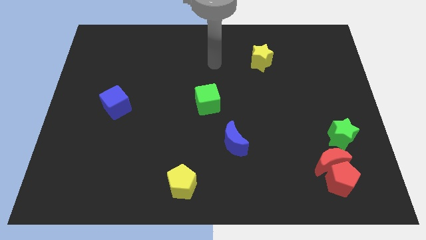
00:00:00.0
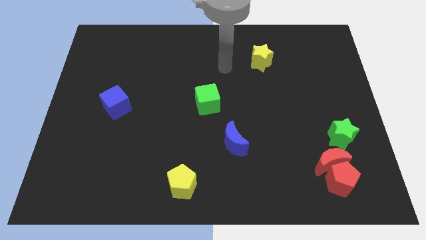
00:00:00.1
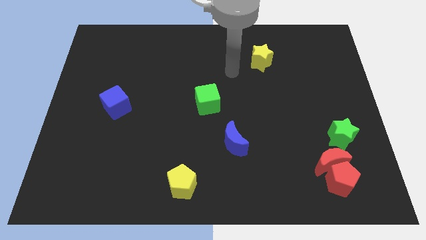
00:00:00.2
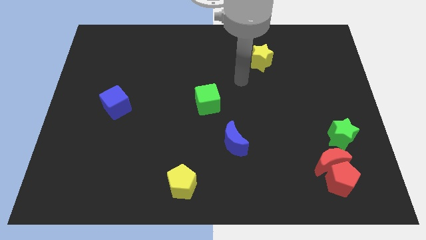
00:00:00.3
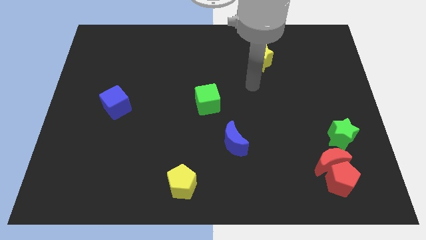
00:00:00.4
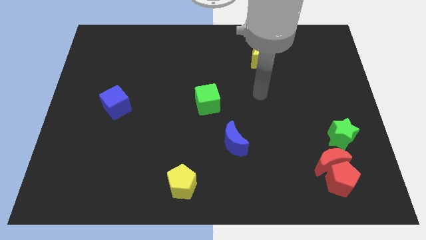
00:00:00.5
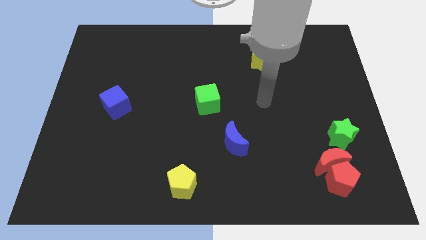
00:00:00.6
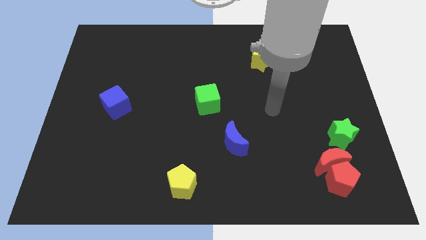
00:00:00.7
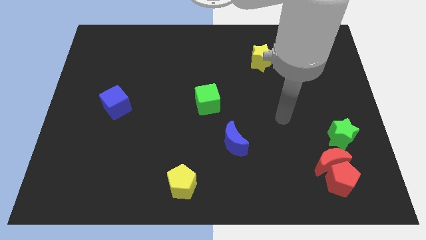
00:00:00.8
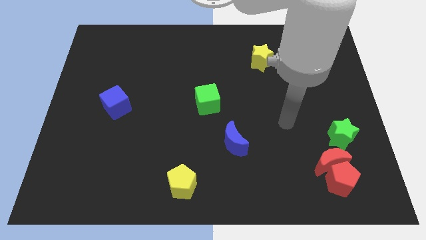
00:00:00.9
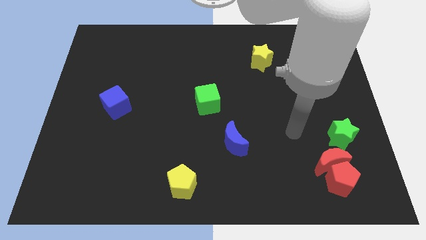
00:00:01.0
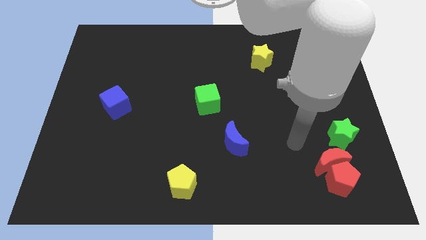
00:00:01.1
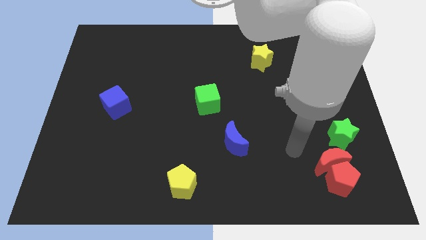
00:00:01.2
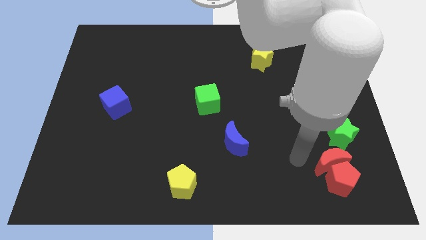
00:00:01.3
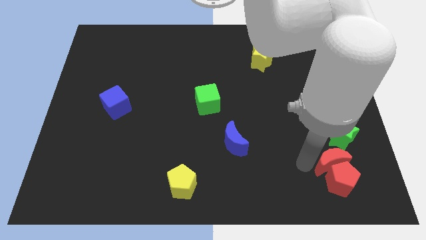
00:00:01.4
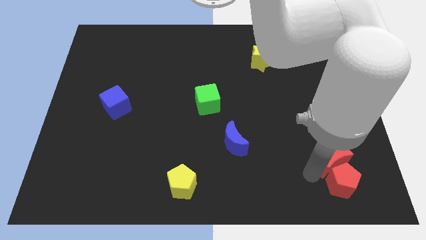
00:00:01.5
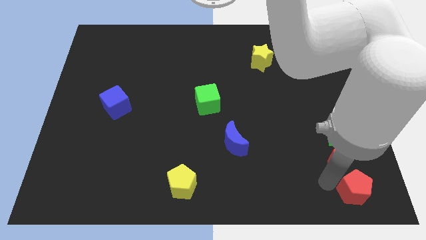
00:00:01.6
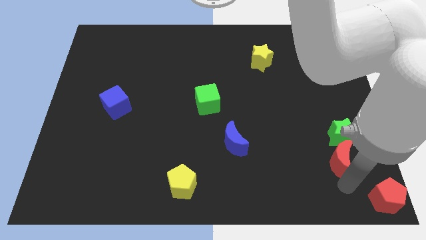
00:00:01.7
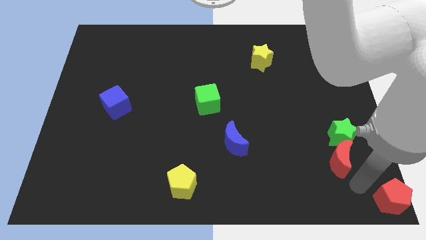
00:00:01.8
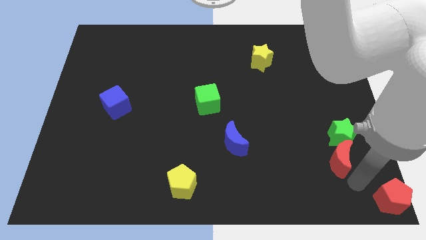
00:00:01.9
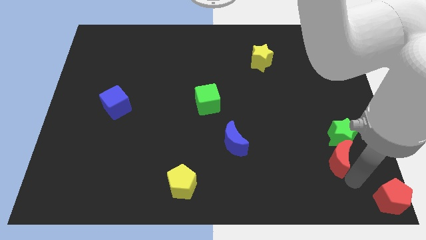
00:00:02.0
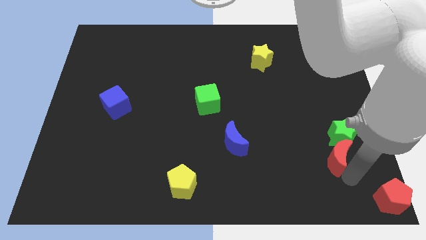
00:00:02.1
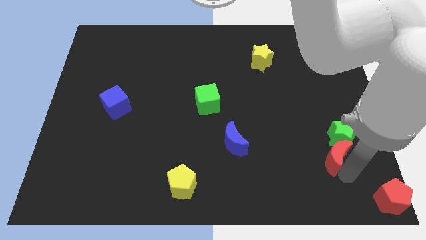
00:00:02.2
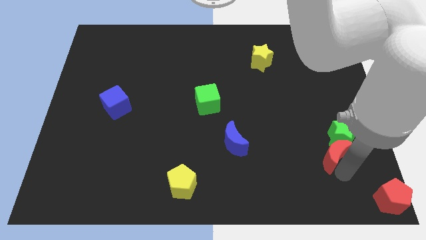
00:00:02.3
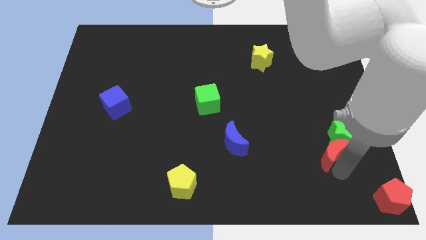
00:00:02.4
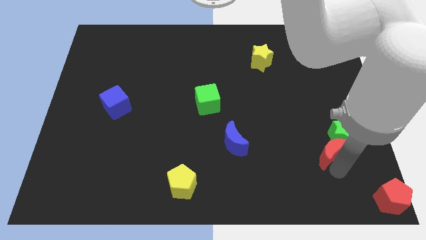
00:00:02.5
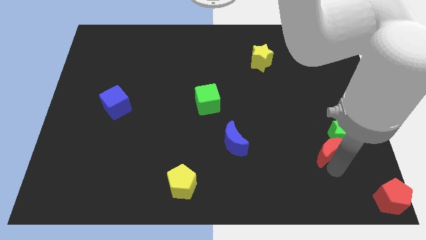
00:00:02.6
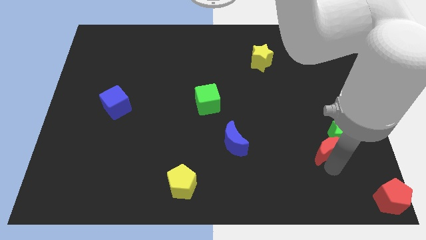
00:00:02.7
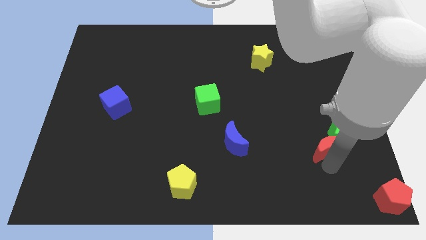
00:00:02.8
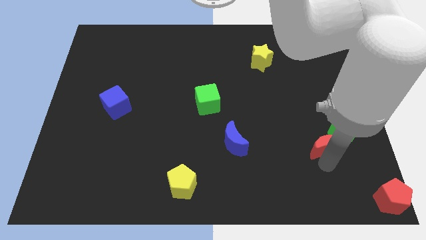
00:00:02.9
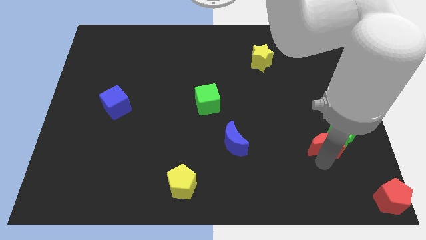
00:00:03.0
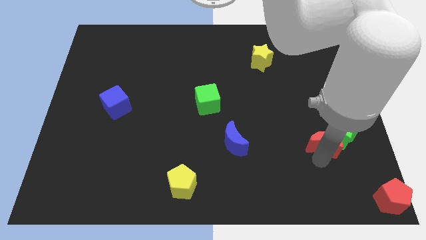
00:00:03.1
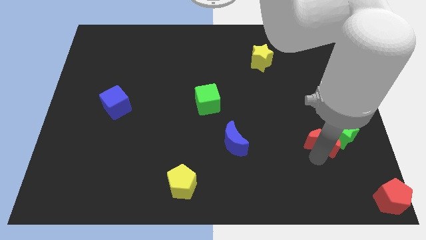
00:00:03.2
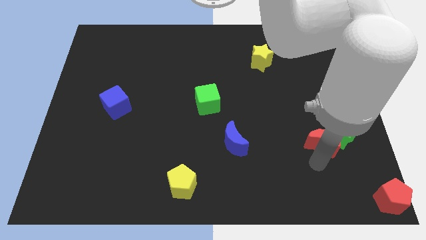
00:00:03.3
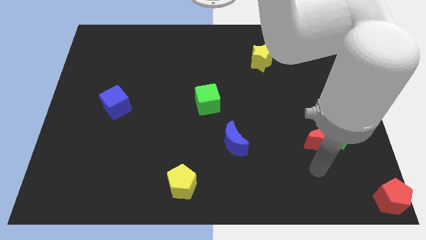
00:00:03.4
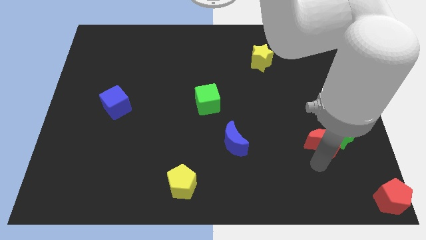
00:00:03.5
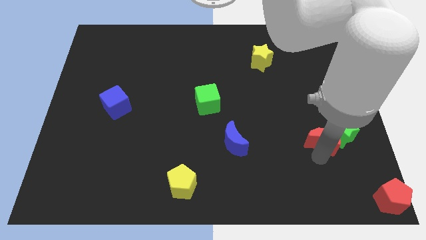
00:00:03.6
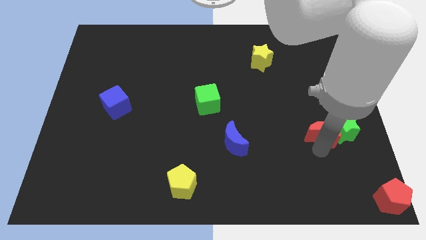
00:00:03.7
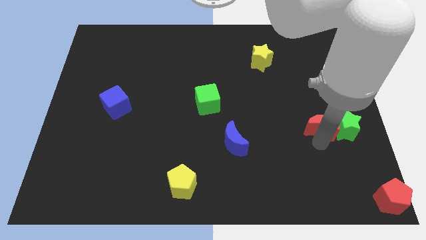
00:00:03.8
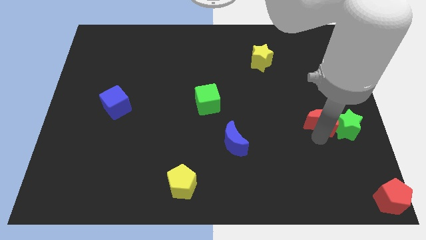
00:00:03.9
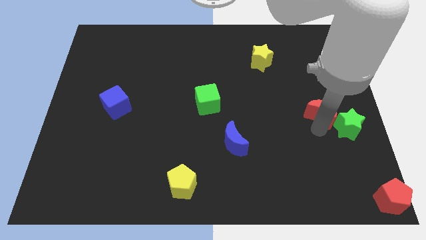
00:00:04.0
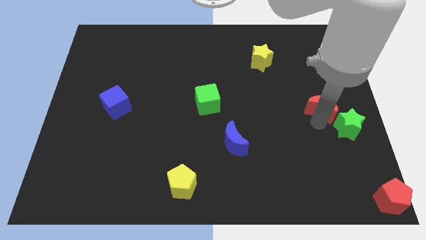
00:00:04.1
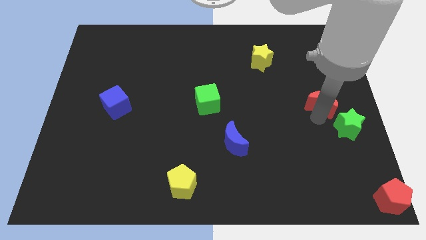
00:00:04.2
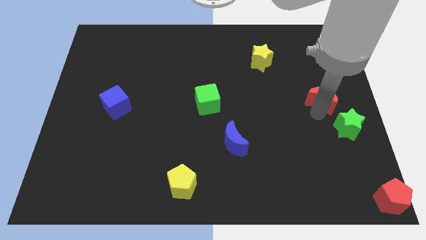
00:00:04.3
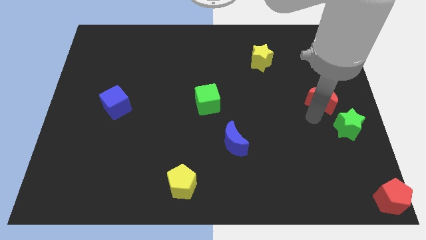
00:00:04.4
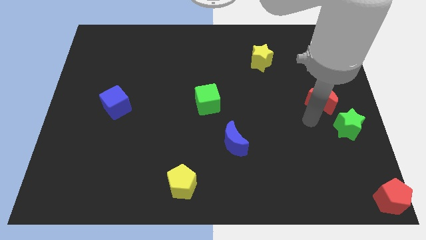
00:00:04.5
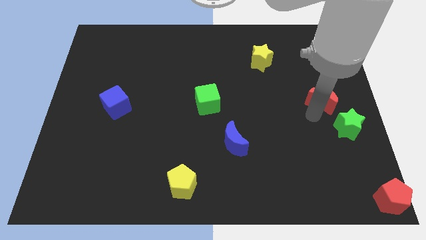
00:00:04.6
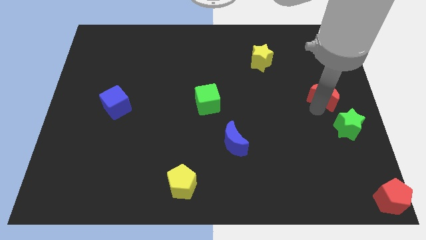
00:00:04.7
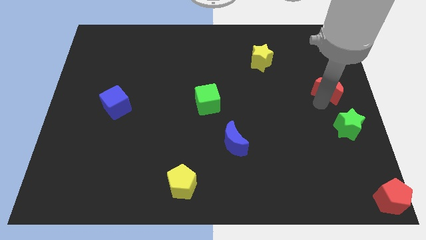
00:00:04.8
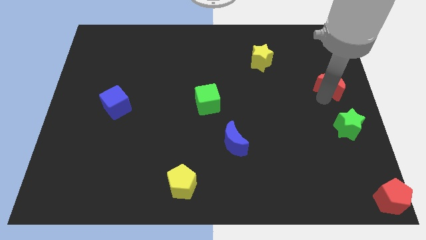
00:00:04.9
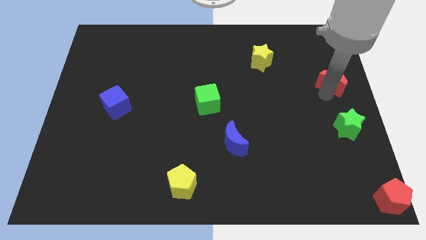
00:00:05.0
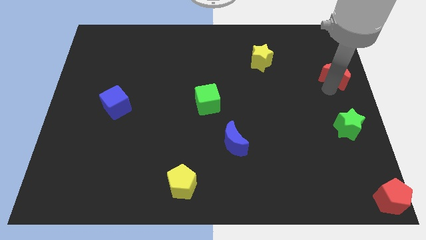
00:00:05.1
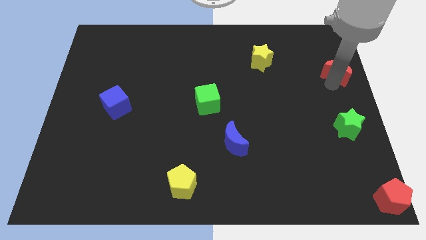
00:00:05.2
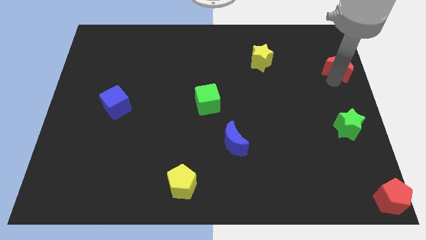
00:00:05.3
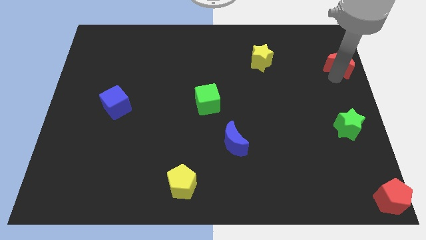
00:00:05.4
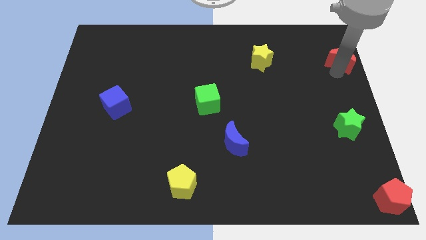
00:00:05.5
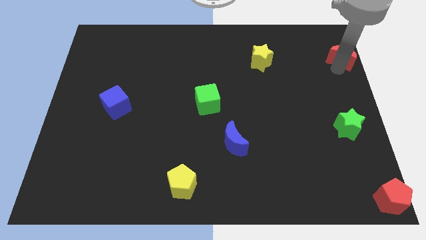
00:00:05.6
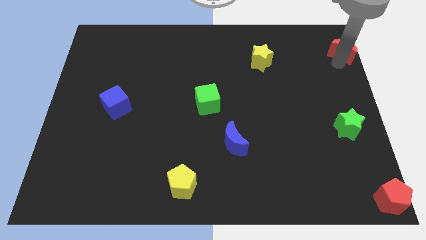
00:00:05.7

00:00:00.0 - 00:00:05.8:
slide the red moon to the top right of the board

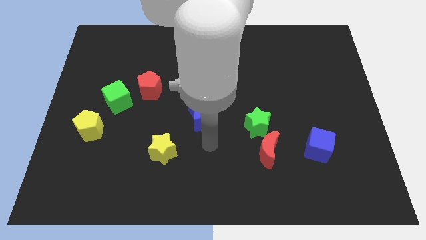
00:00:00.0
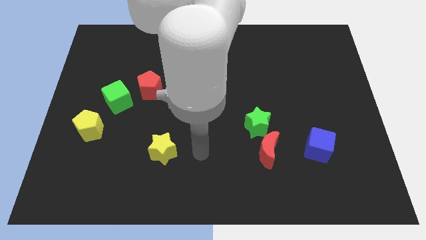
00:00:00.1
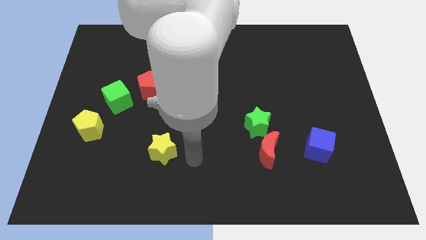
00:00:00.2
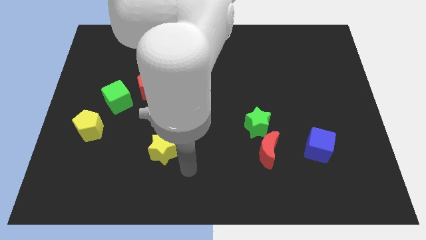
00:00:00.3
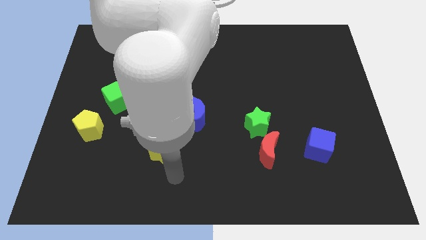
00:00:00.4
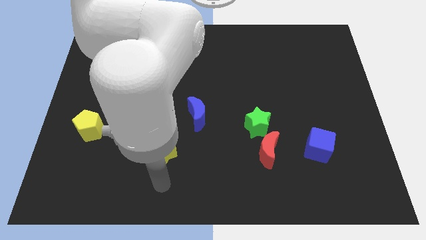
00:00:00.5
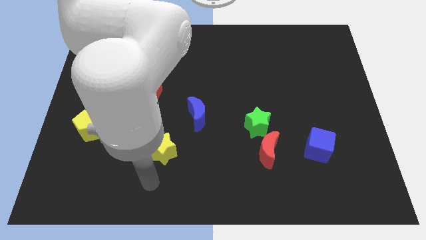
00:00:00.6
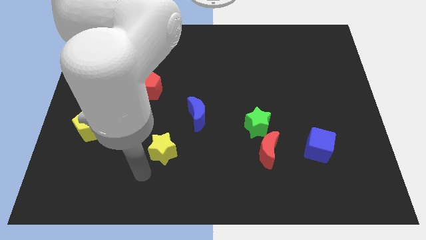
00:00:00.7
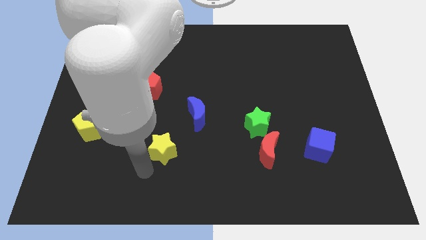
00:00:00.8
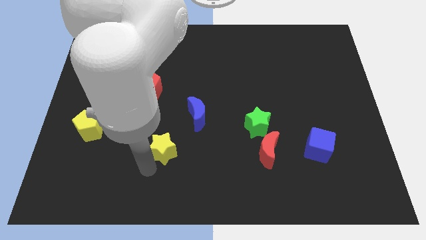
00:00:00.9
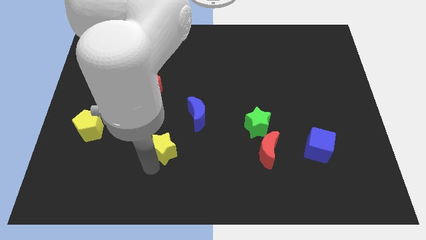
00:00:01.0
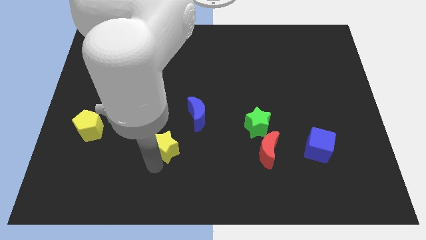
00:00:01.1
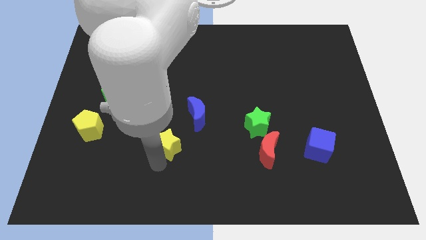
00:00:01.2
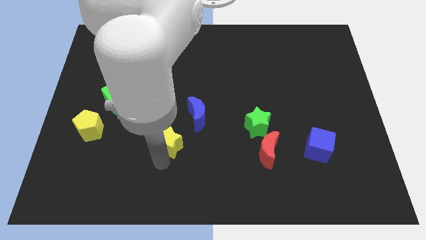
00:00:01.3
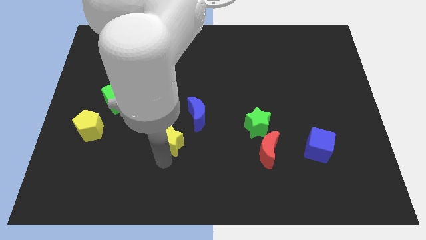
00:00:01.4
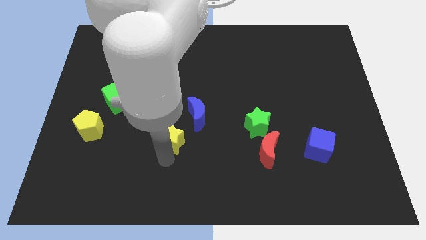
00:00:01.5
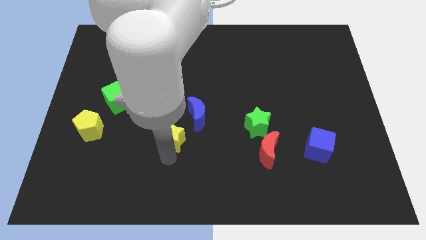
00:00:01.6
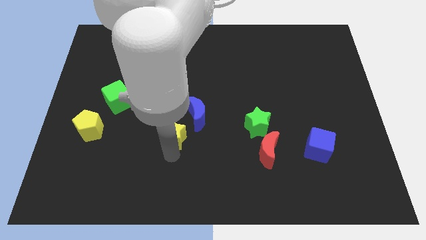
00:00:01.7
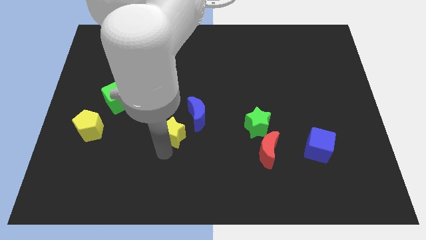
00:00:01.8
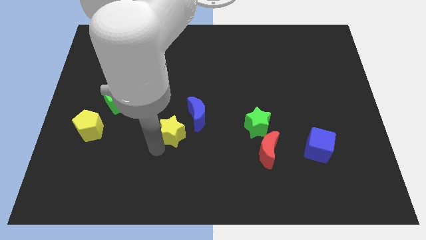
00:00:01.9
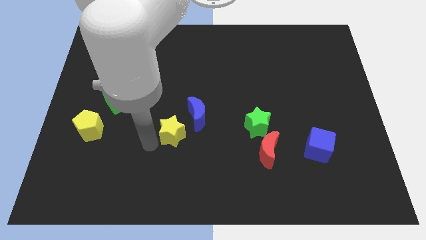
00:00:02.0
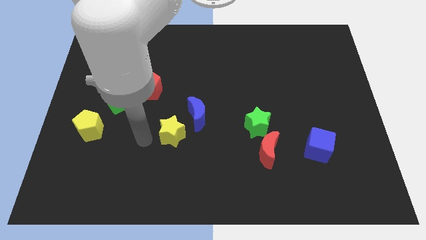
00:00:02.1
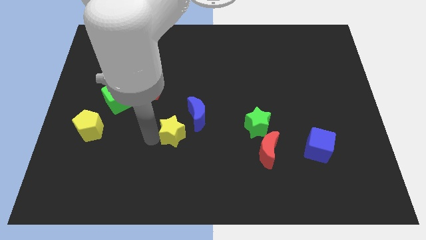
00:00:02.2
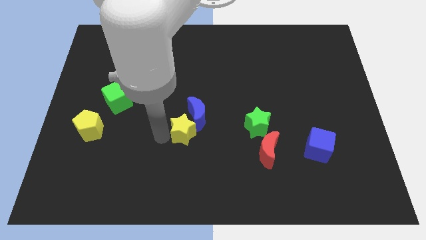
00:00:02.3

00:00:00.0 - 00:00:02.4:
put the yellow star to the center
